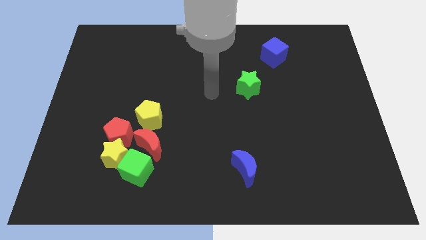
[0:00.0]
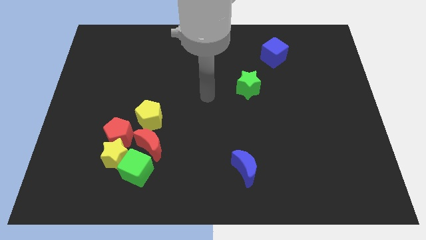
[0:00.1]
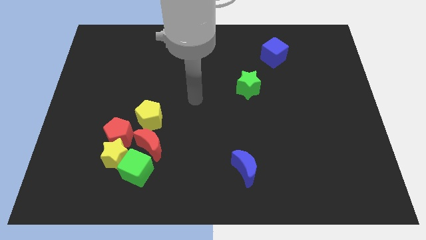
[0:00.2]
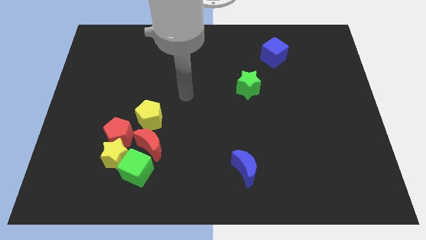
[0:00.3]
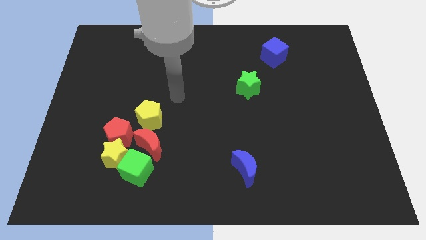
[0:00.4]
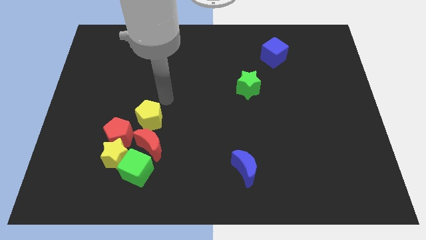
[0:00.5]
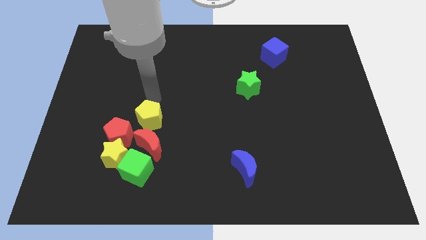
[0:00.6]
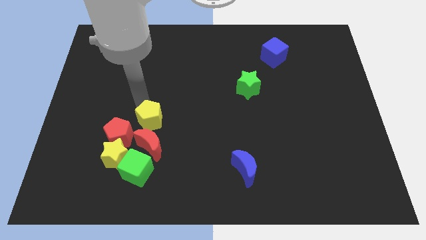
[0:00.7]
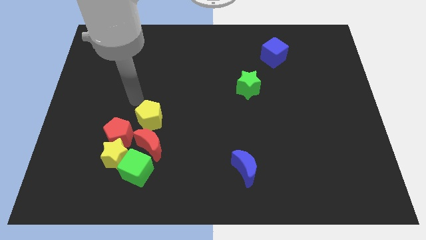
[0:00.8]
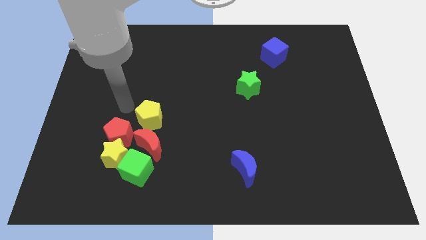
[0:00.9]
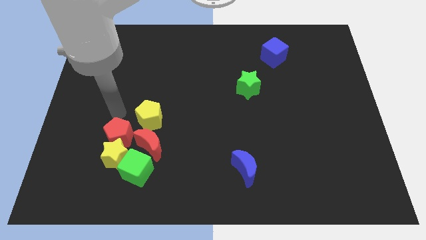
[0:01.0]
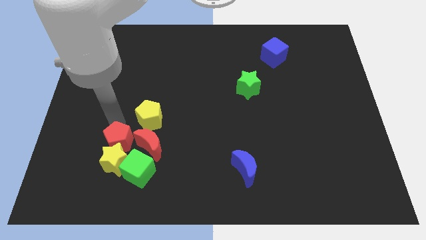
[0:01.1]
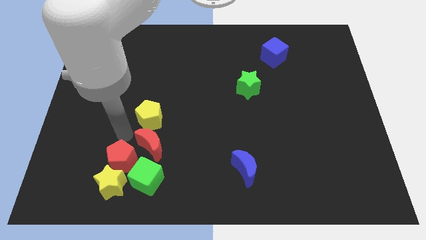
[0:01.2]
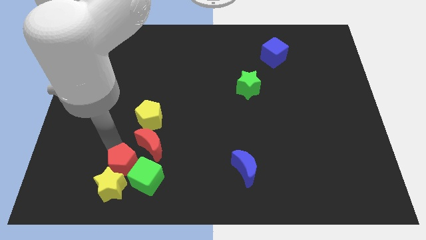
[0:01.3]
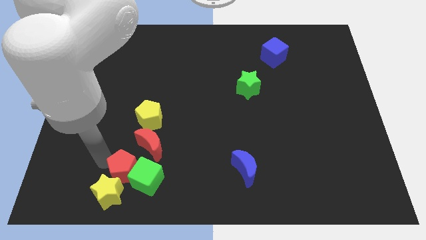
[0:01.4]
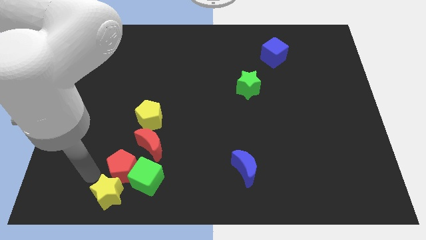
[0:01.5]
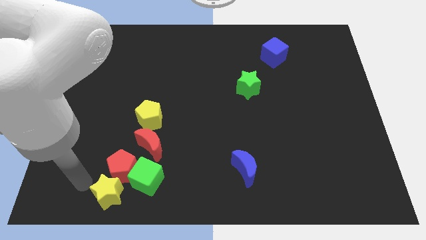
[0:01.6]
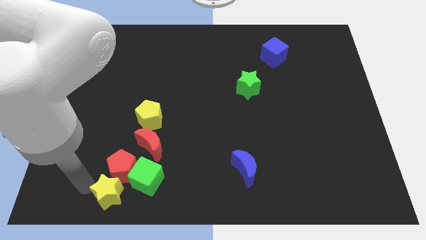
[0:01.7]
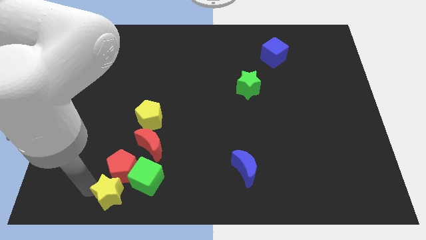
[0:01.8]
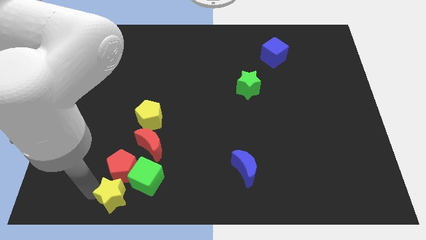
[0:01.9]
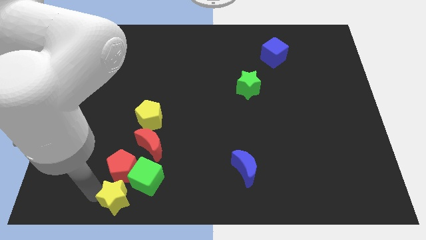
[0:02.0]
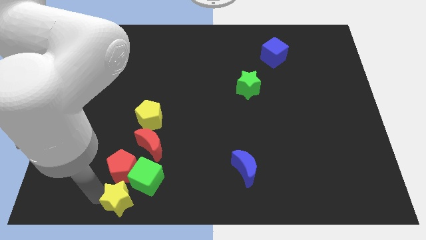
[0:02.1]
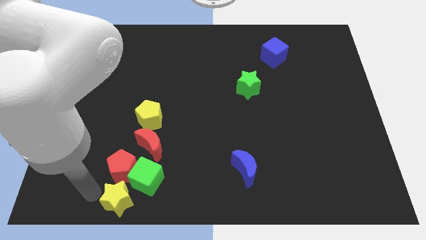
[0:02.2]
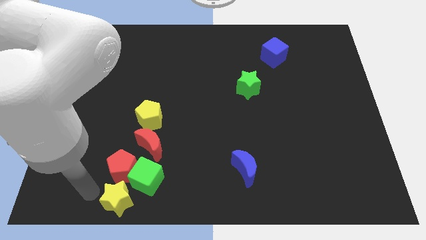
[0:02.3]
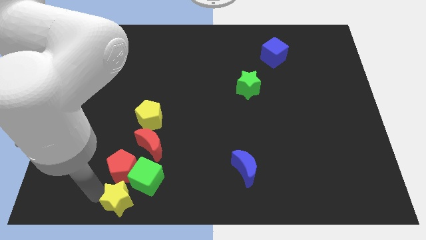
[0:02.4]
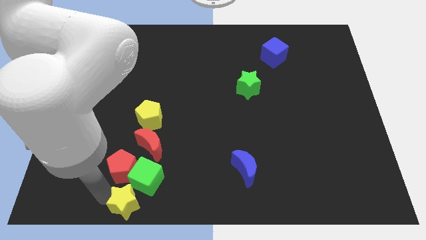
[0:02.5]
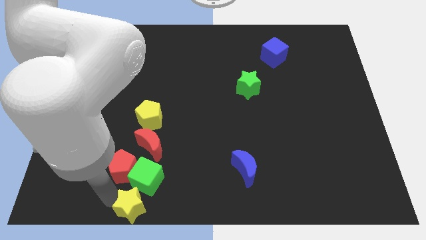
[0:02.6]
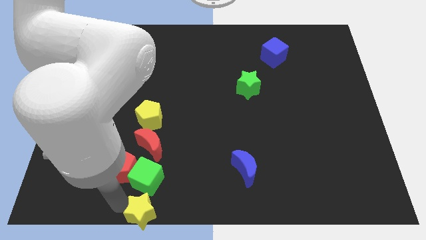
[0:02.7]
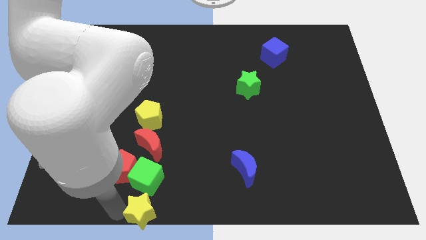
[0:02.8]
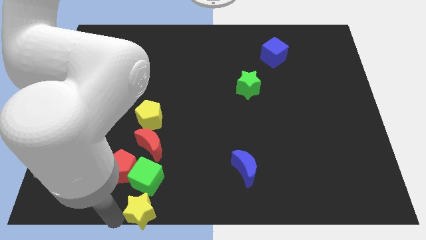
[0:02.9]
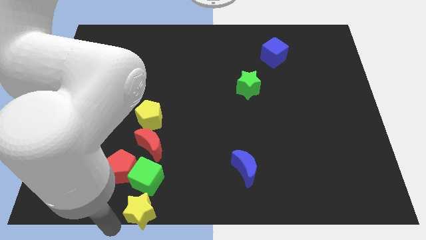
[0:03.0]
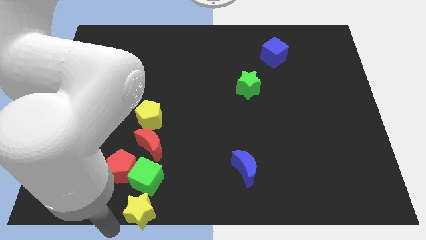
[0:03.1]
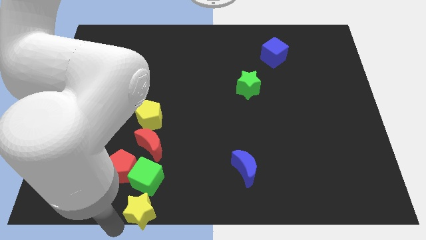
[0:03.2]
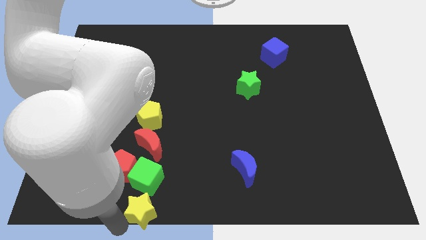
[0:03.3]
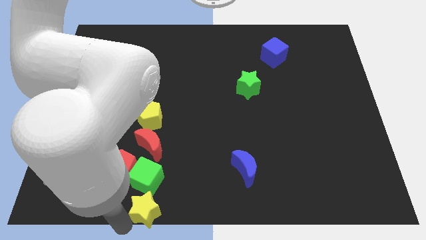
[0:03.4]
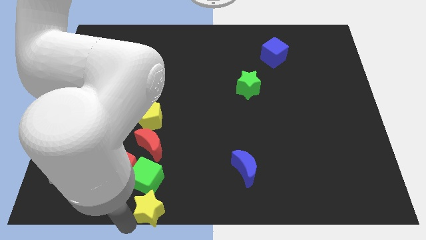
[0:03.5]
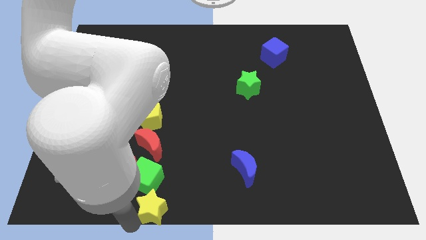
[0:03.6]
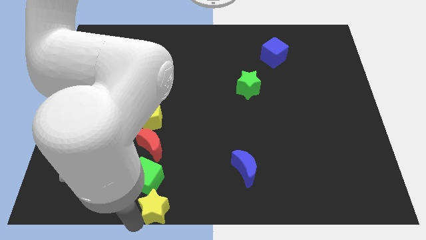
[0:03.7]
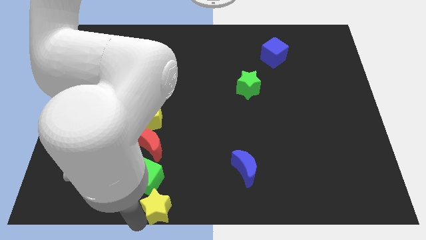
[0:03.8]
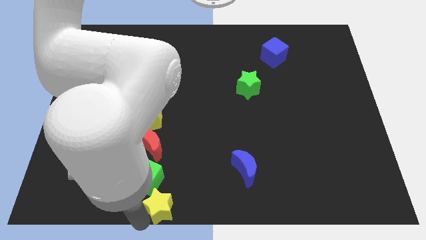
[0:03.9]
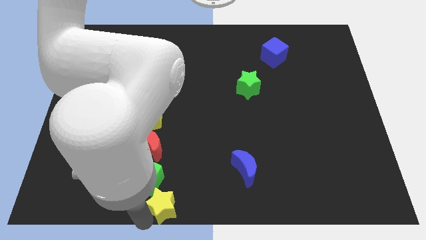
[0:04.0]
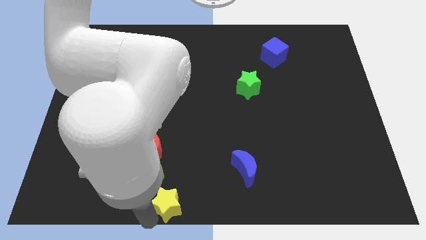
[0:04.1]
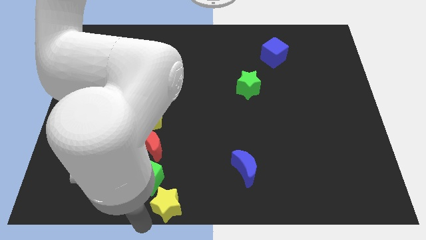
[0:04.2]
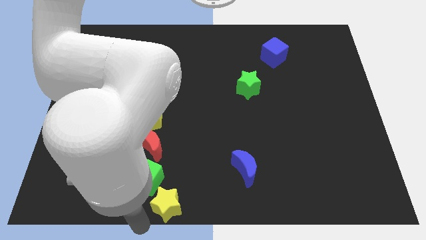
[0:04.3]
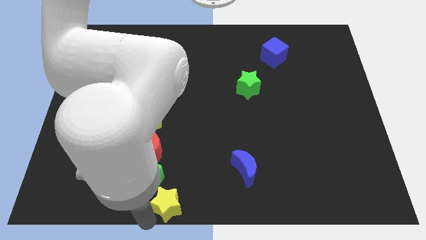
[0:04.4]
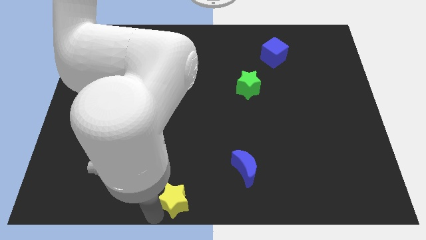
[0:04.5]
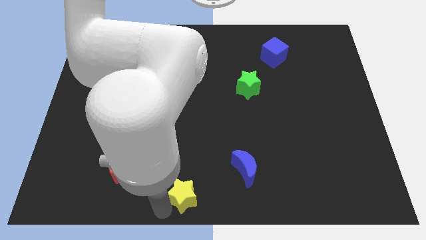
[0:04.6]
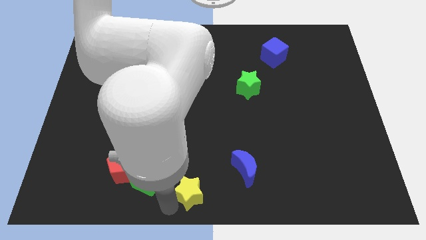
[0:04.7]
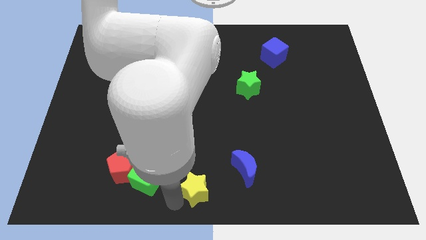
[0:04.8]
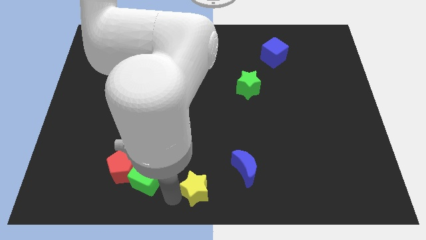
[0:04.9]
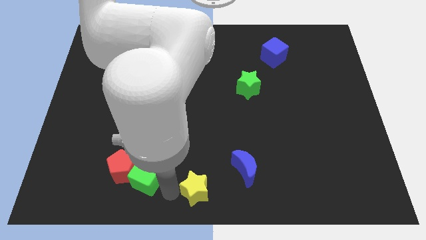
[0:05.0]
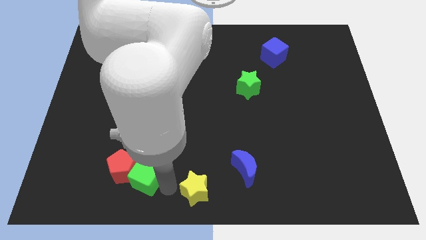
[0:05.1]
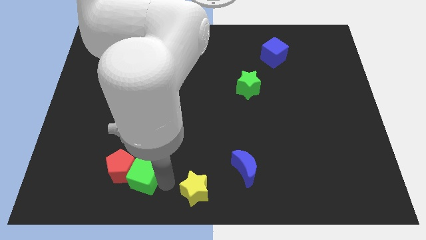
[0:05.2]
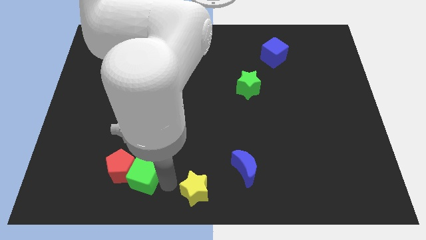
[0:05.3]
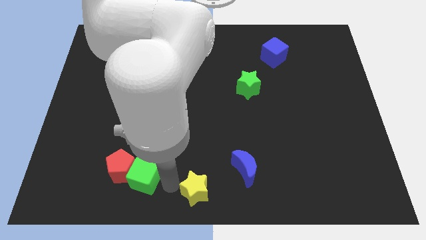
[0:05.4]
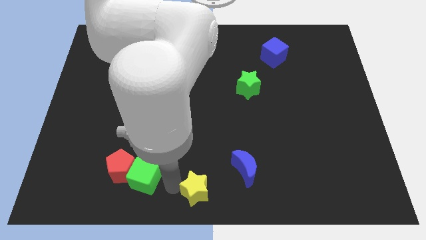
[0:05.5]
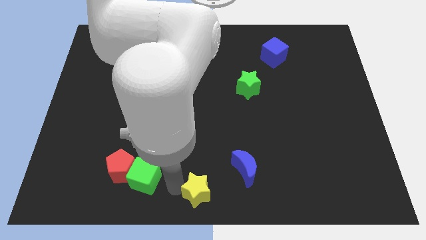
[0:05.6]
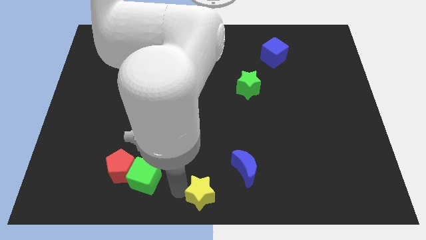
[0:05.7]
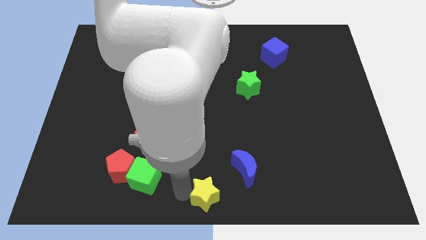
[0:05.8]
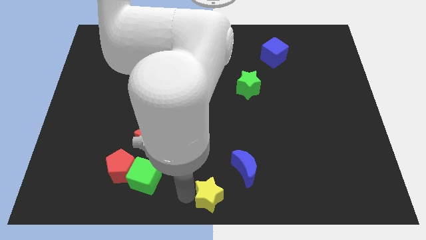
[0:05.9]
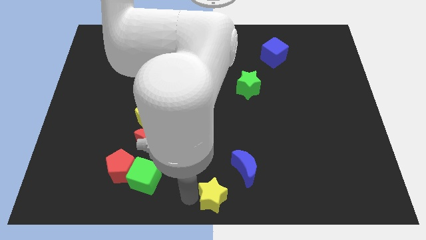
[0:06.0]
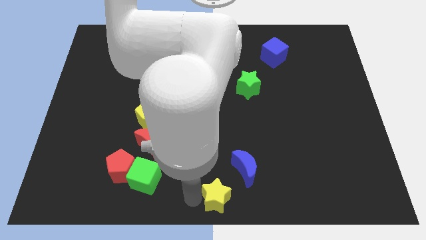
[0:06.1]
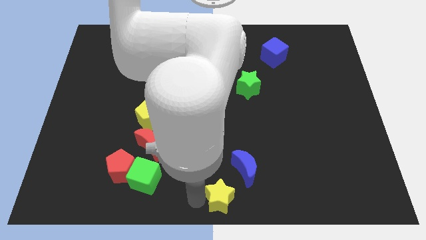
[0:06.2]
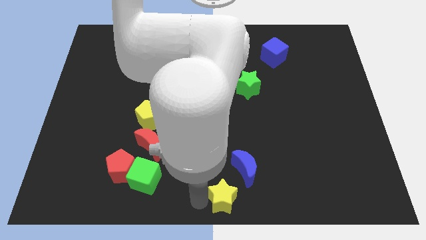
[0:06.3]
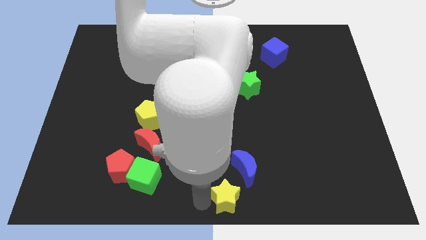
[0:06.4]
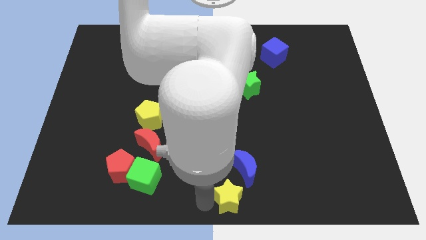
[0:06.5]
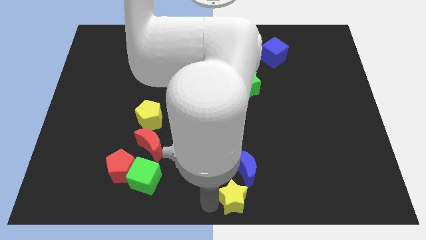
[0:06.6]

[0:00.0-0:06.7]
move the yellow star to the right

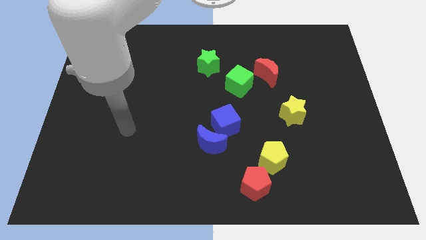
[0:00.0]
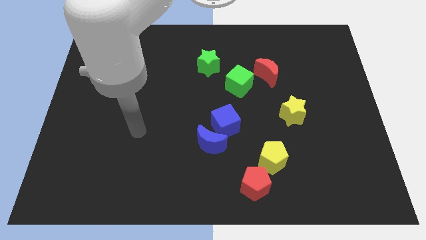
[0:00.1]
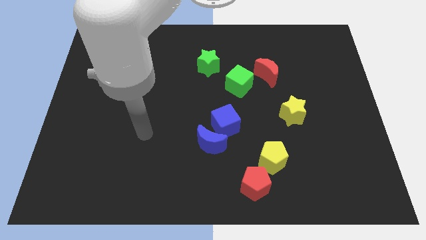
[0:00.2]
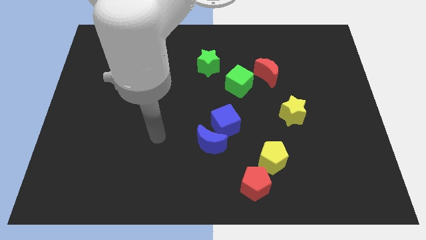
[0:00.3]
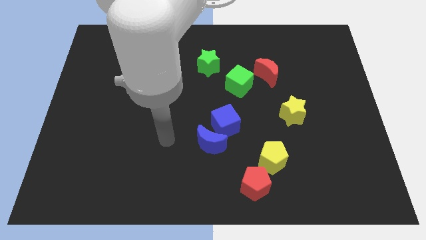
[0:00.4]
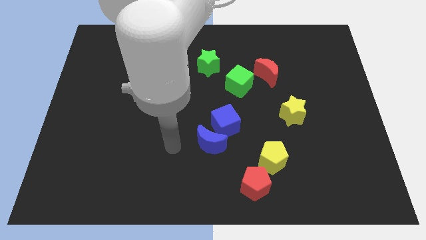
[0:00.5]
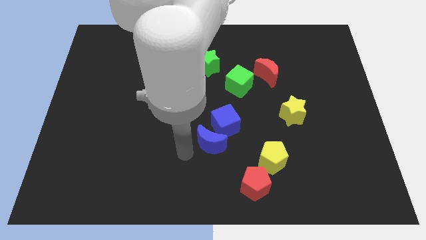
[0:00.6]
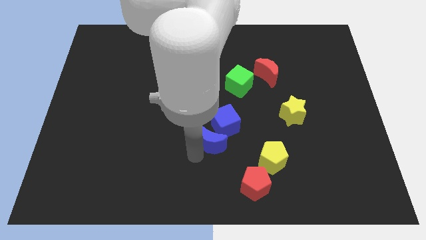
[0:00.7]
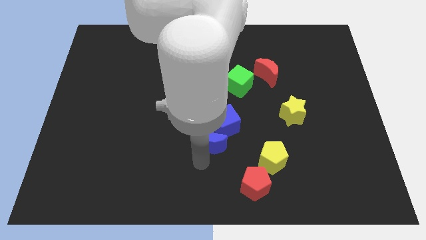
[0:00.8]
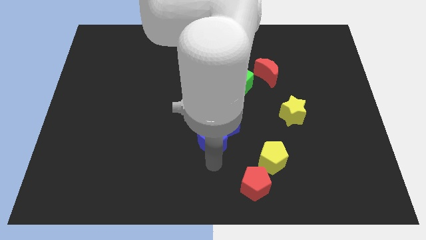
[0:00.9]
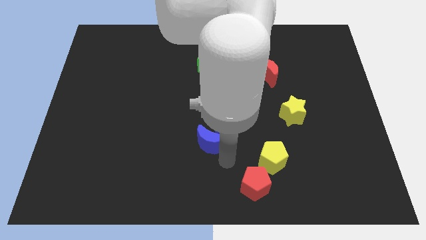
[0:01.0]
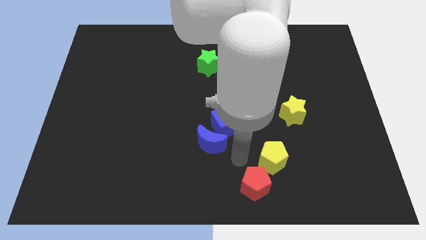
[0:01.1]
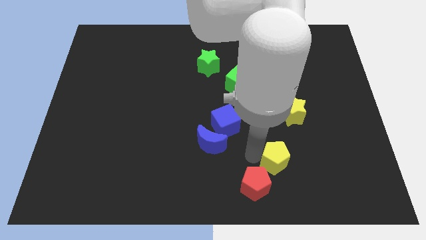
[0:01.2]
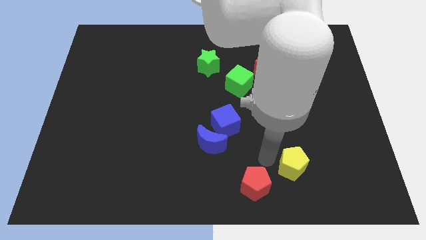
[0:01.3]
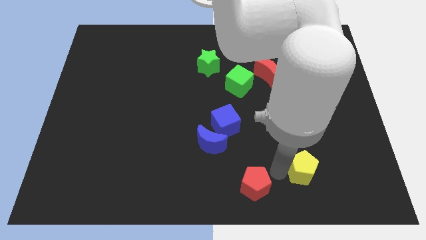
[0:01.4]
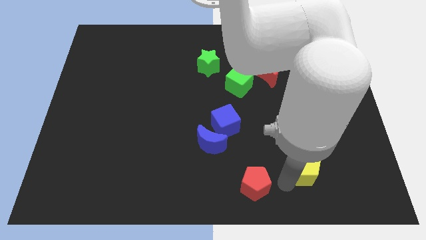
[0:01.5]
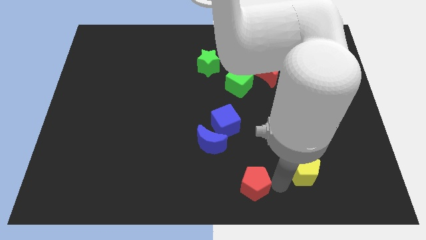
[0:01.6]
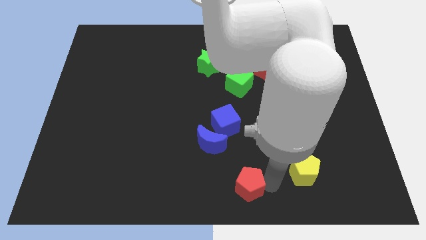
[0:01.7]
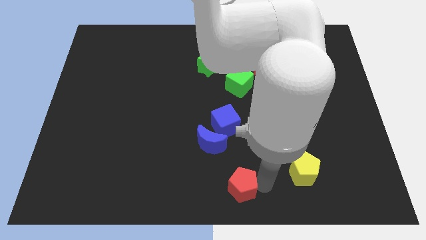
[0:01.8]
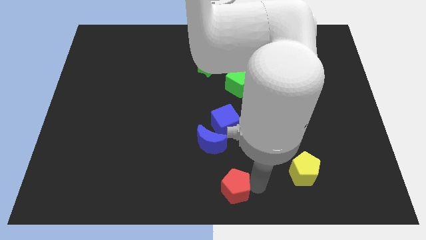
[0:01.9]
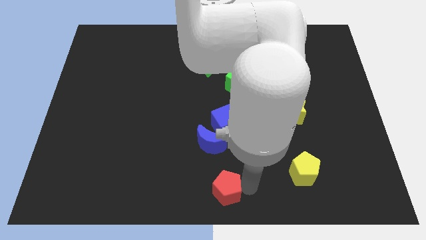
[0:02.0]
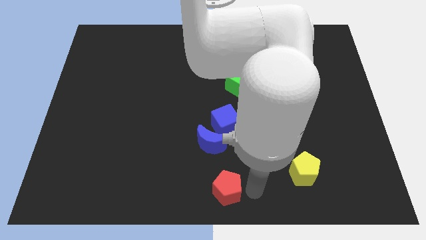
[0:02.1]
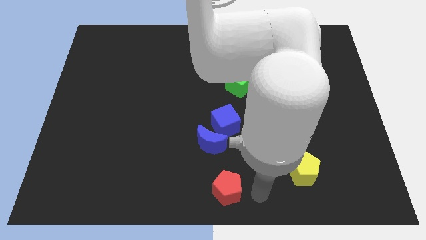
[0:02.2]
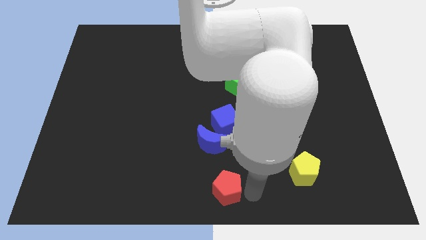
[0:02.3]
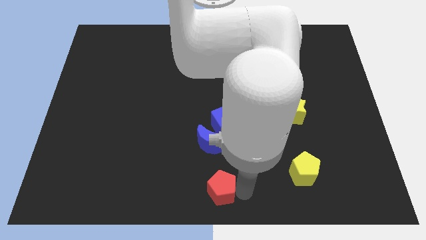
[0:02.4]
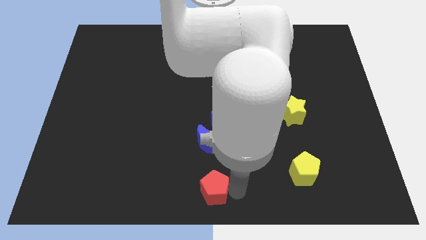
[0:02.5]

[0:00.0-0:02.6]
slightly slide the red pentagon left
